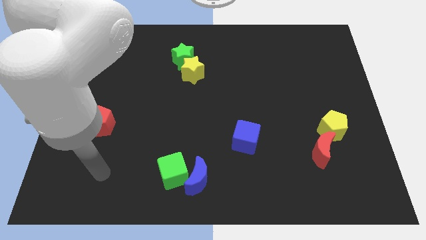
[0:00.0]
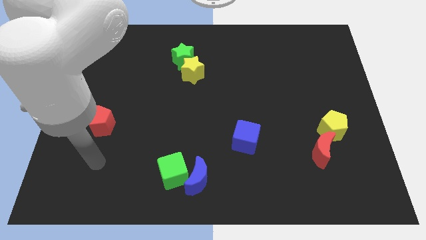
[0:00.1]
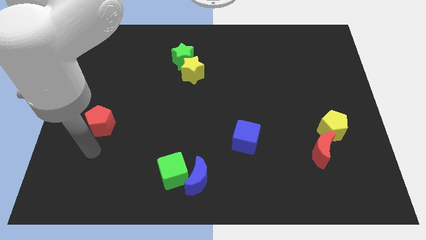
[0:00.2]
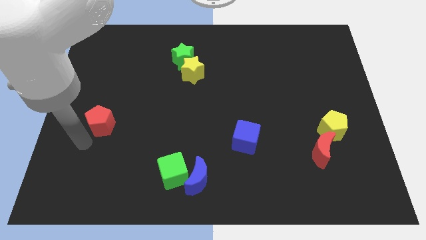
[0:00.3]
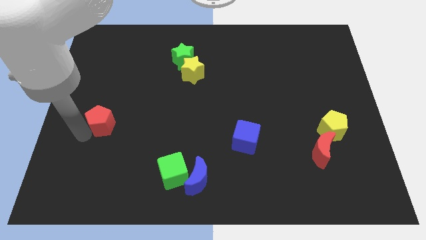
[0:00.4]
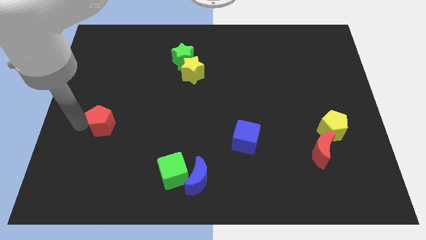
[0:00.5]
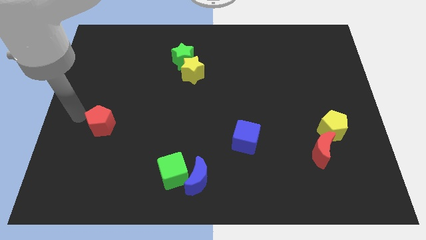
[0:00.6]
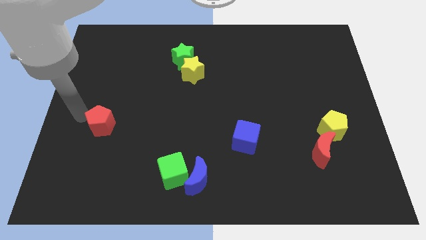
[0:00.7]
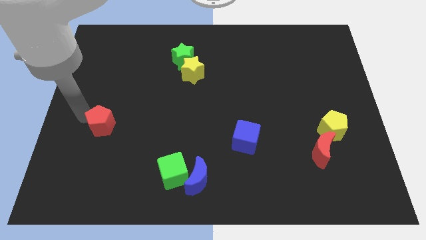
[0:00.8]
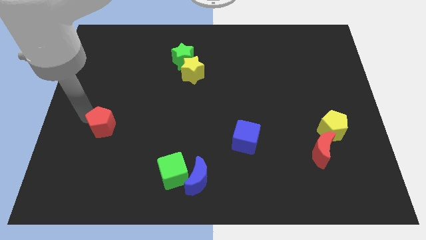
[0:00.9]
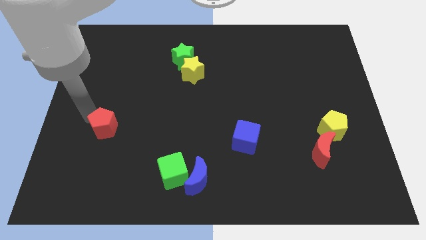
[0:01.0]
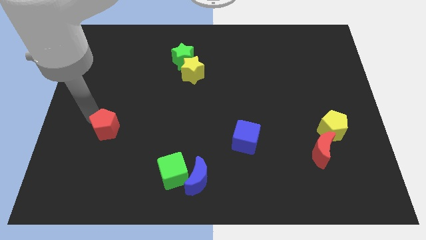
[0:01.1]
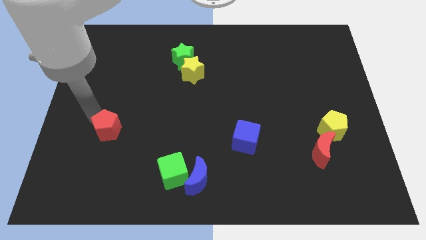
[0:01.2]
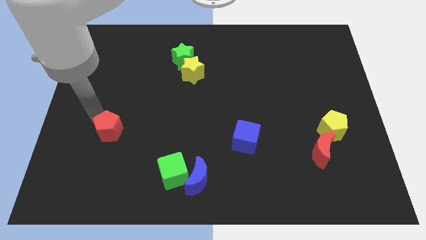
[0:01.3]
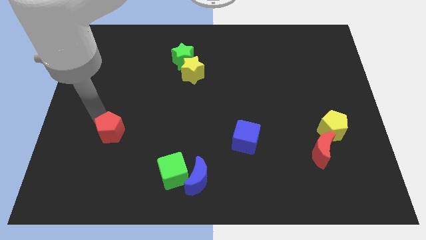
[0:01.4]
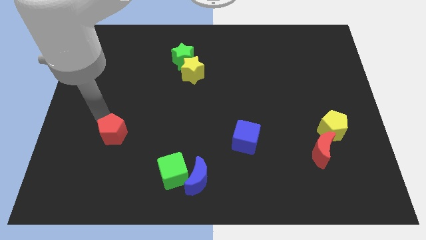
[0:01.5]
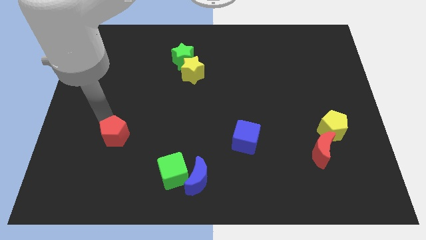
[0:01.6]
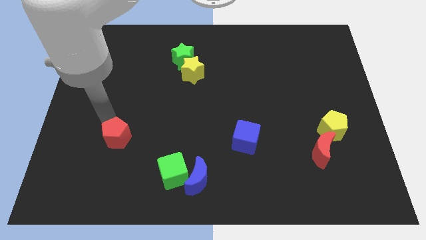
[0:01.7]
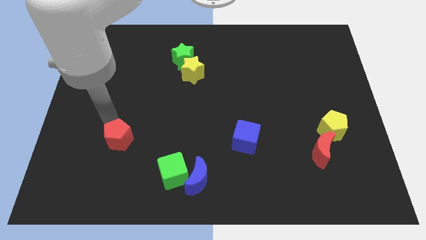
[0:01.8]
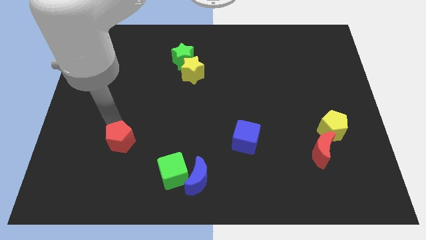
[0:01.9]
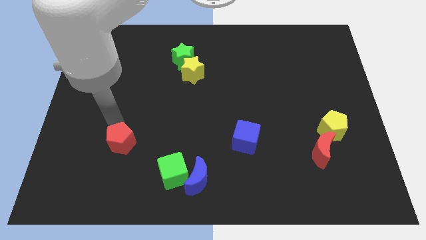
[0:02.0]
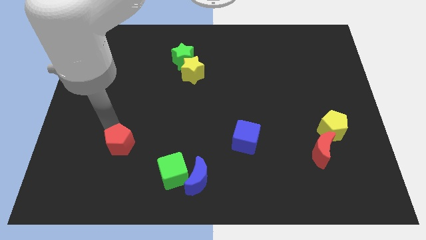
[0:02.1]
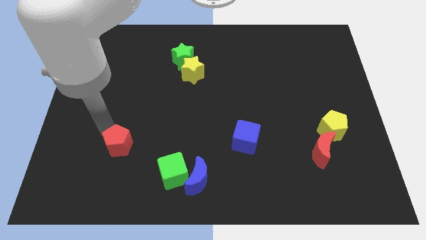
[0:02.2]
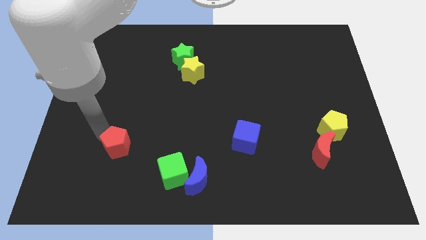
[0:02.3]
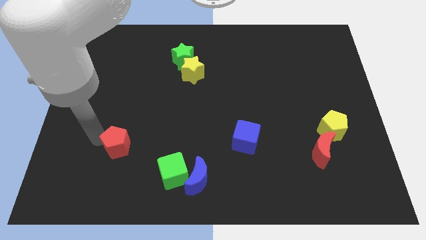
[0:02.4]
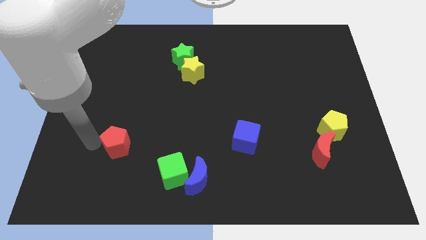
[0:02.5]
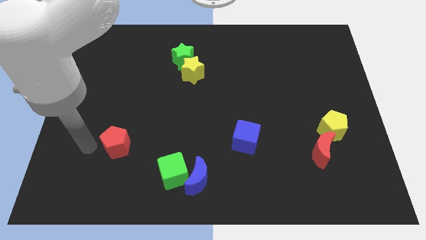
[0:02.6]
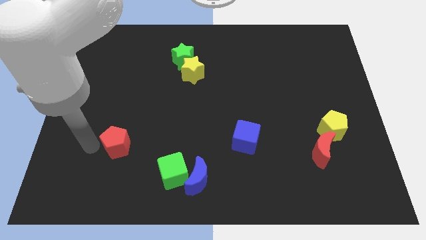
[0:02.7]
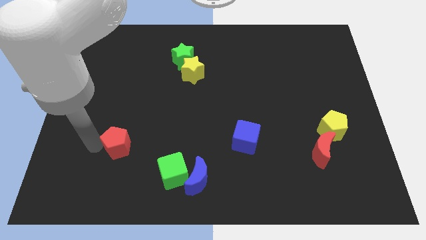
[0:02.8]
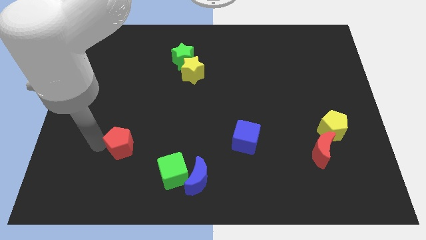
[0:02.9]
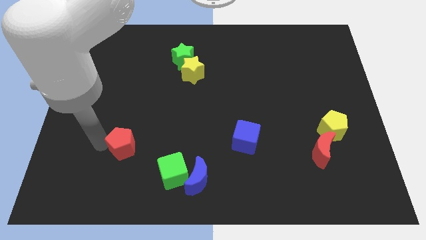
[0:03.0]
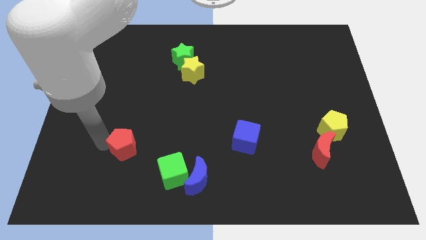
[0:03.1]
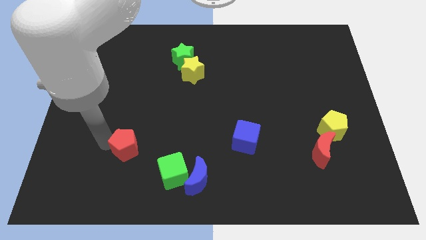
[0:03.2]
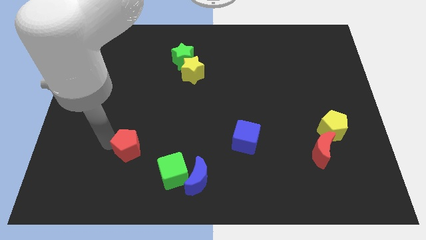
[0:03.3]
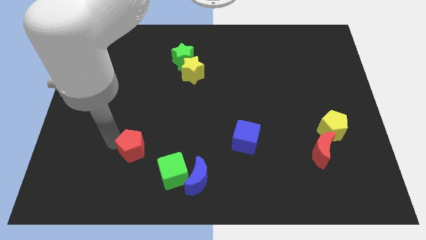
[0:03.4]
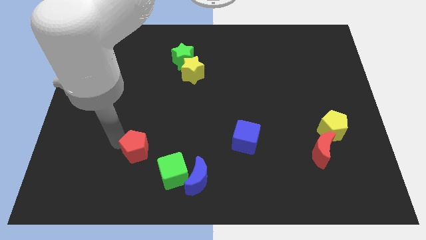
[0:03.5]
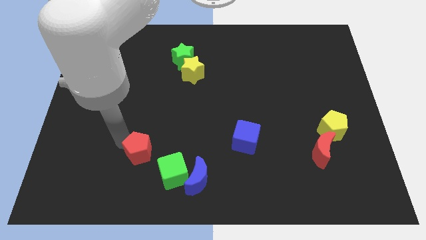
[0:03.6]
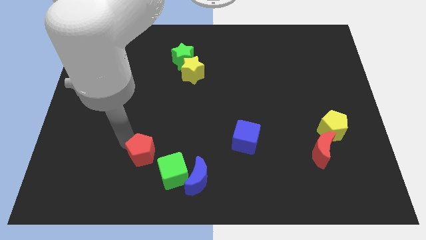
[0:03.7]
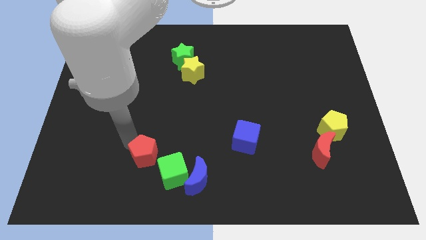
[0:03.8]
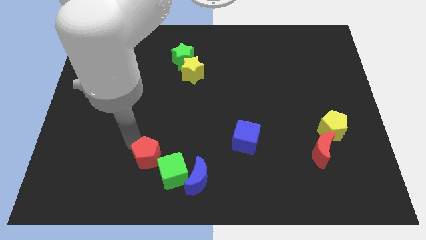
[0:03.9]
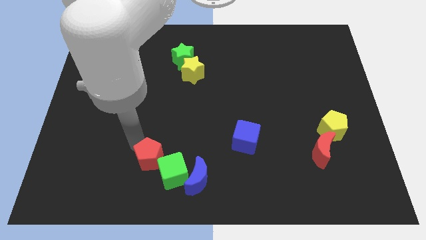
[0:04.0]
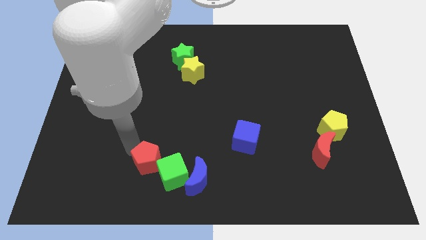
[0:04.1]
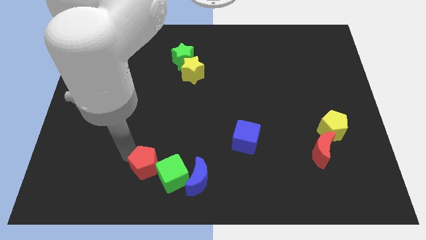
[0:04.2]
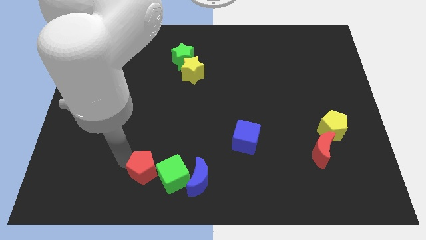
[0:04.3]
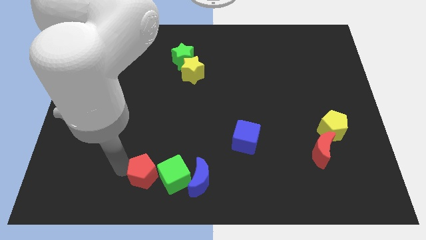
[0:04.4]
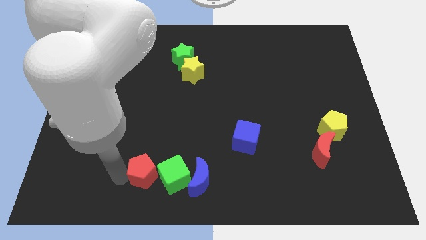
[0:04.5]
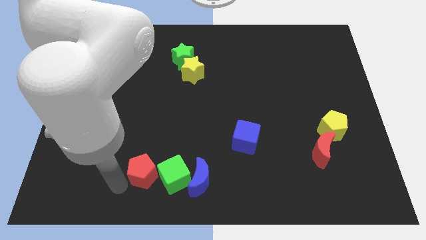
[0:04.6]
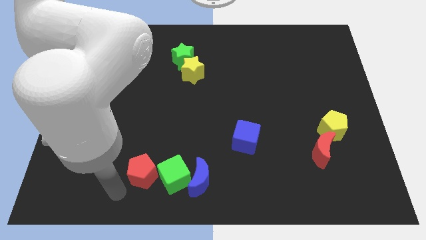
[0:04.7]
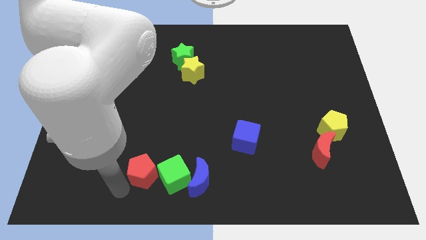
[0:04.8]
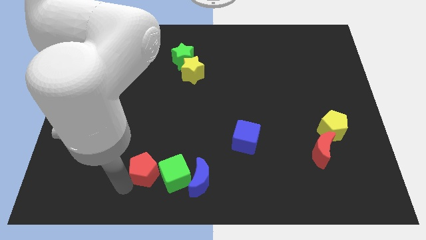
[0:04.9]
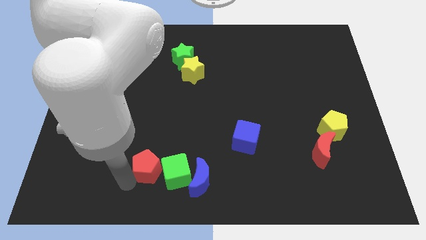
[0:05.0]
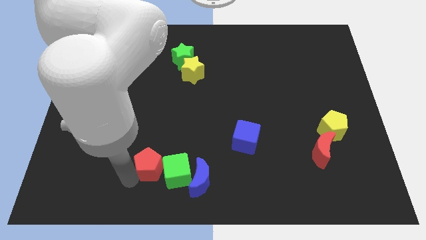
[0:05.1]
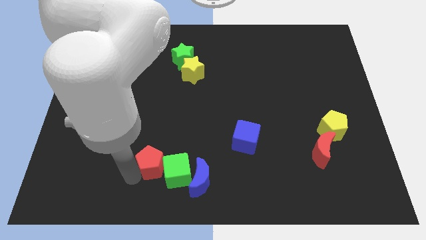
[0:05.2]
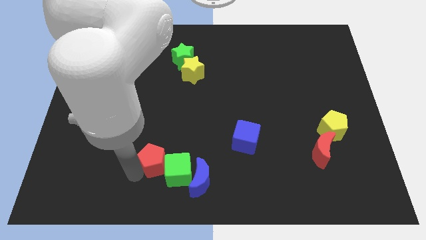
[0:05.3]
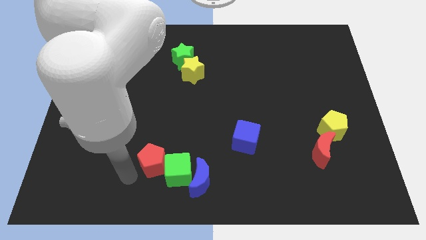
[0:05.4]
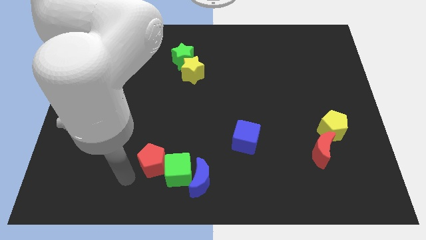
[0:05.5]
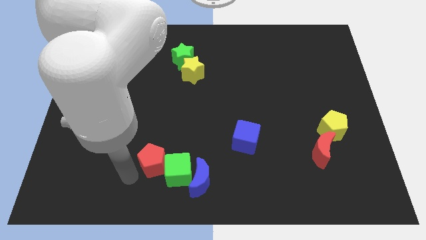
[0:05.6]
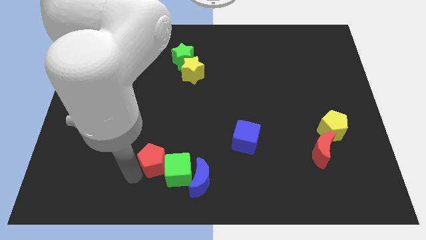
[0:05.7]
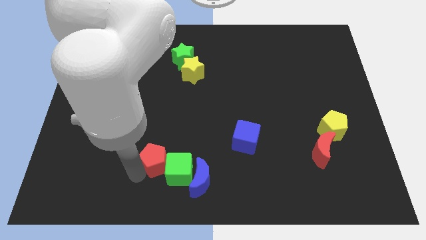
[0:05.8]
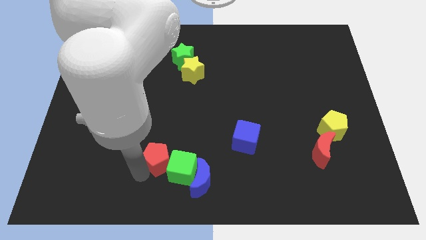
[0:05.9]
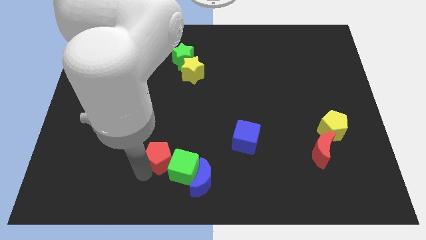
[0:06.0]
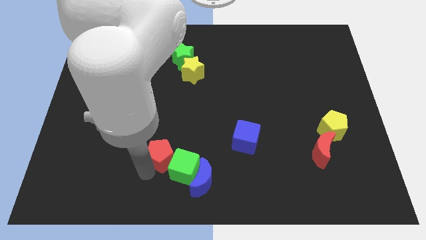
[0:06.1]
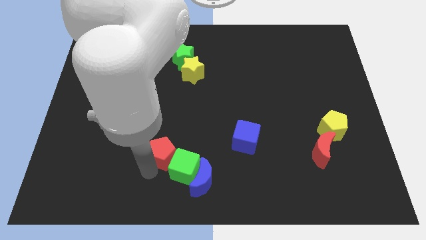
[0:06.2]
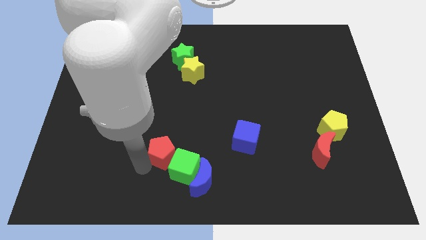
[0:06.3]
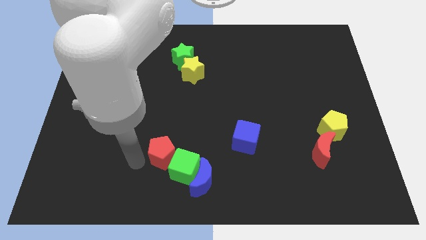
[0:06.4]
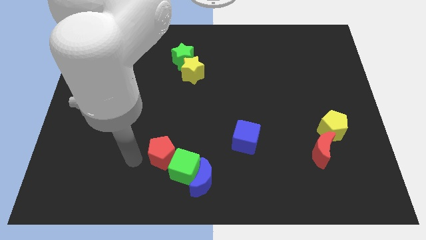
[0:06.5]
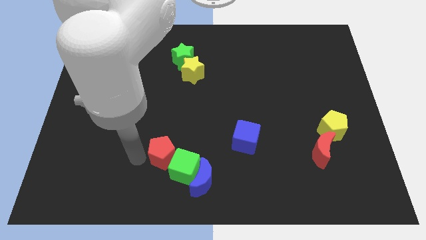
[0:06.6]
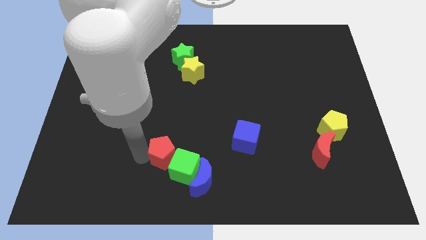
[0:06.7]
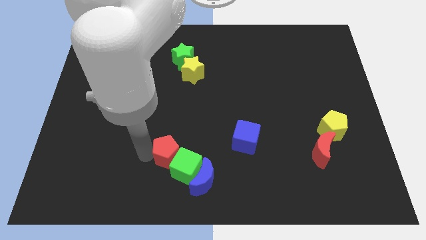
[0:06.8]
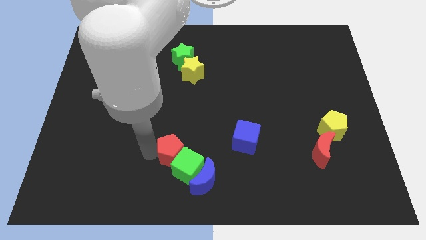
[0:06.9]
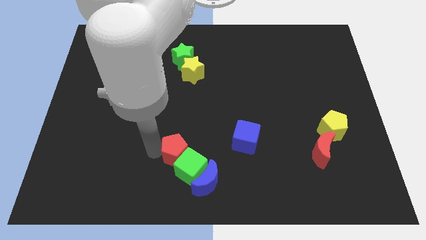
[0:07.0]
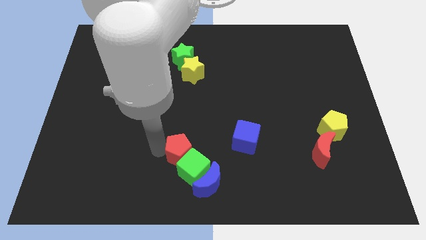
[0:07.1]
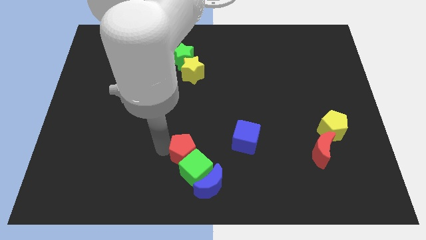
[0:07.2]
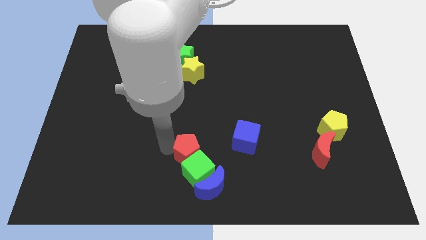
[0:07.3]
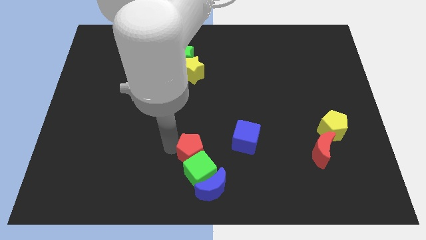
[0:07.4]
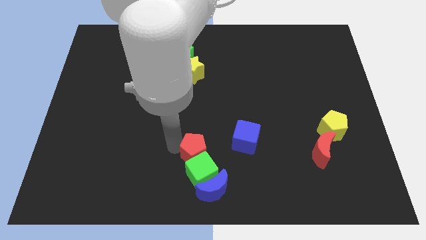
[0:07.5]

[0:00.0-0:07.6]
slide the red pentagon diagonally up and to the right of the green cube
